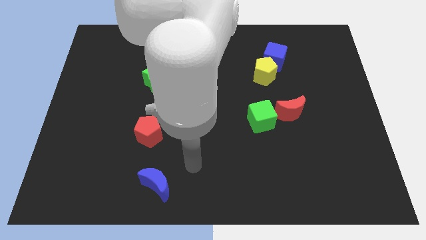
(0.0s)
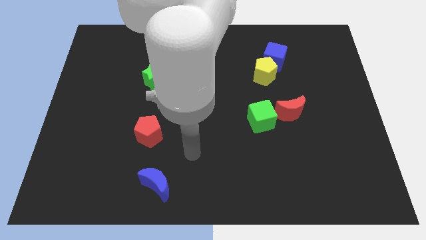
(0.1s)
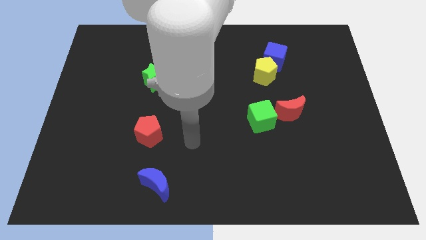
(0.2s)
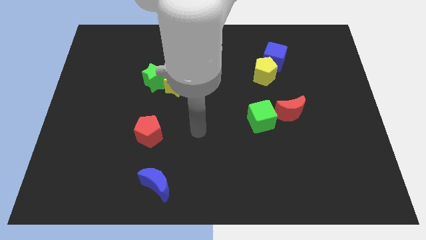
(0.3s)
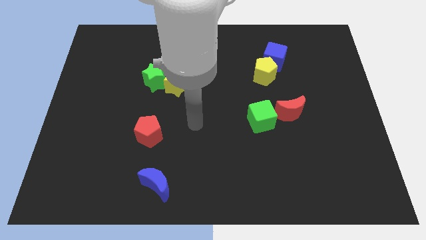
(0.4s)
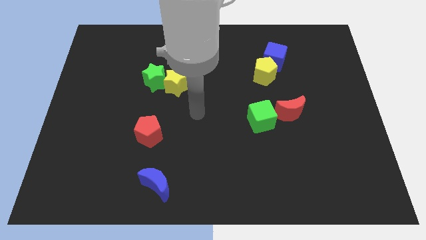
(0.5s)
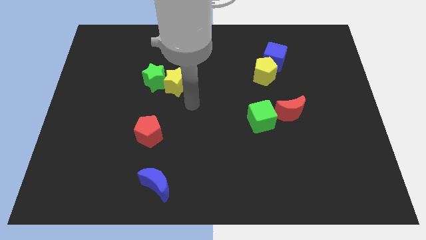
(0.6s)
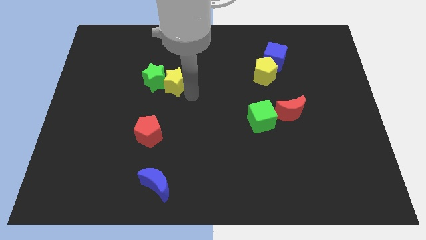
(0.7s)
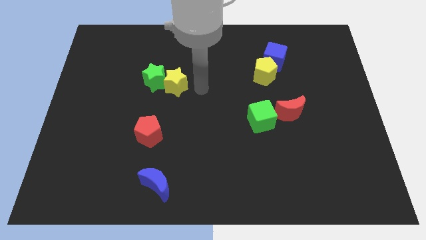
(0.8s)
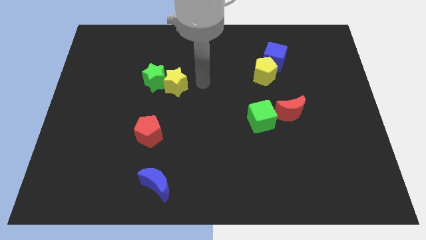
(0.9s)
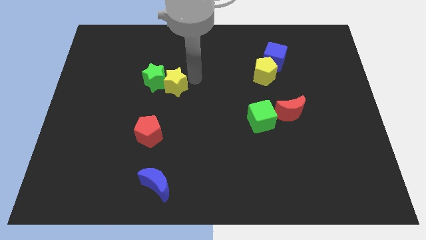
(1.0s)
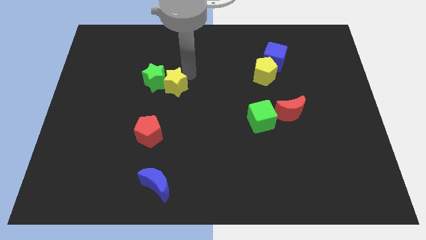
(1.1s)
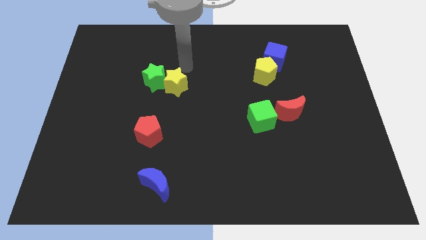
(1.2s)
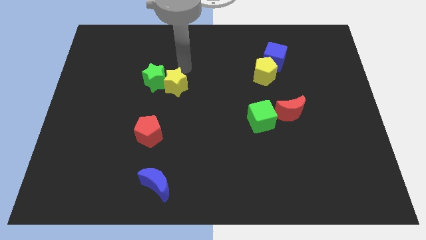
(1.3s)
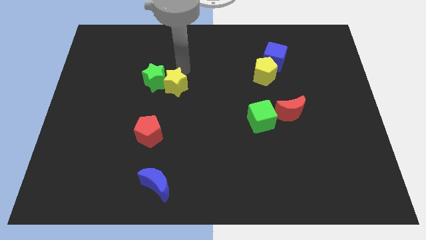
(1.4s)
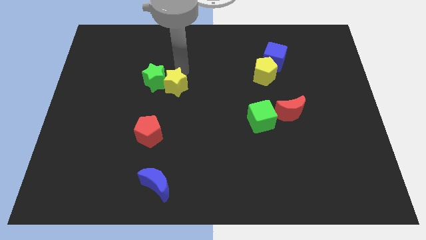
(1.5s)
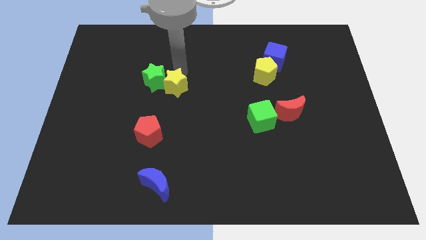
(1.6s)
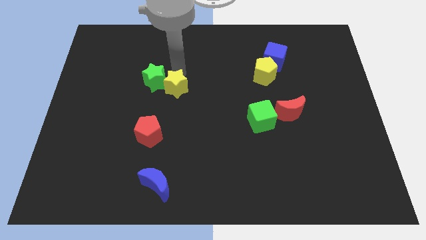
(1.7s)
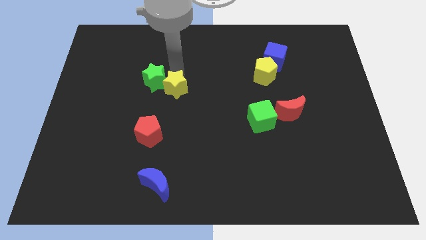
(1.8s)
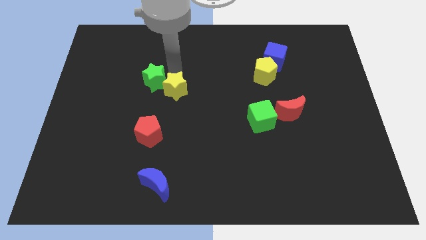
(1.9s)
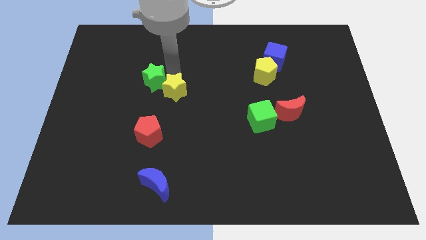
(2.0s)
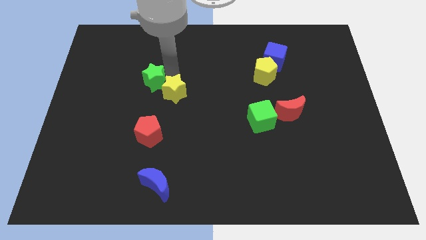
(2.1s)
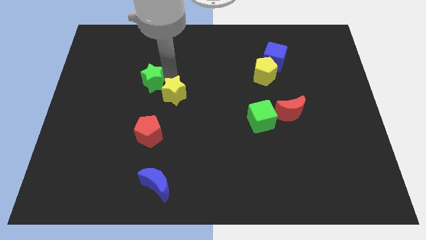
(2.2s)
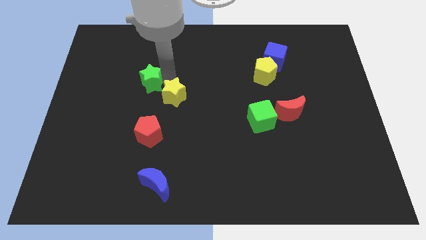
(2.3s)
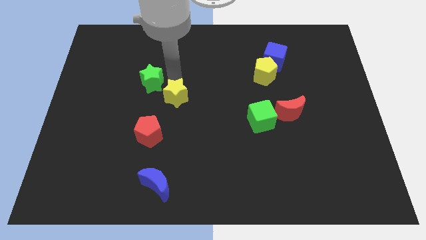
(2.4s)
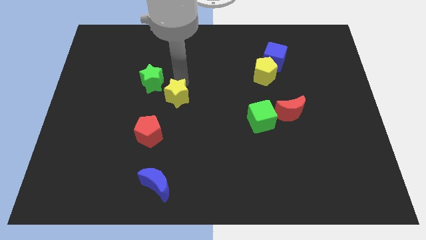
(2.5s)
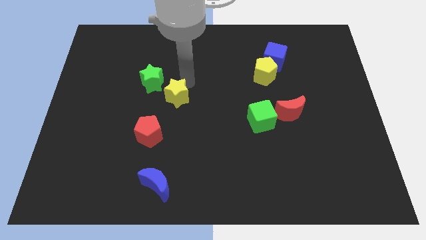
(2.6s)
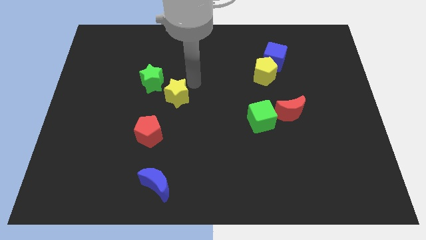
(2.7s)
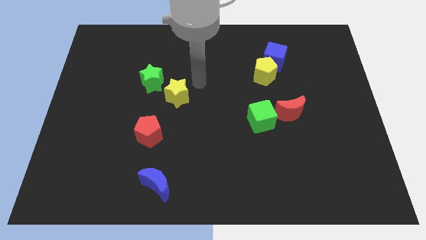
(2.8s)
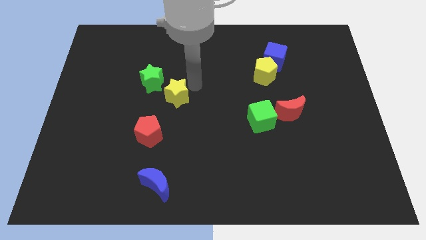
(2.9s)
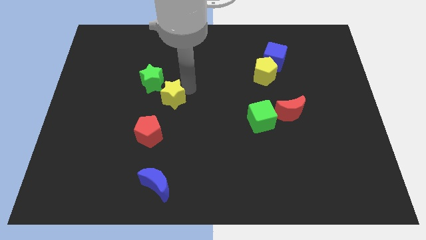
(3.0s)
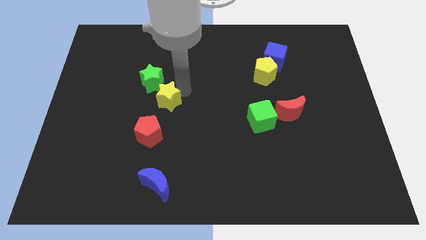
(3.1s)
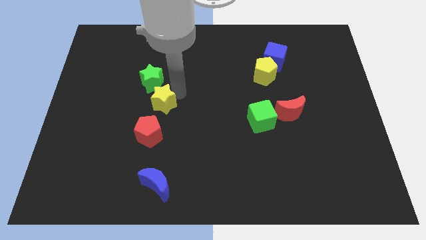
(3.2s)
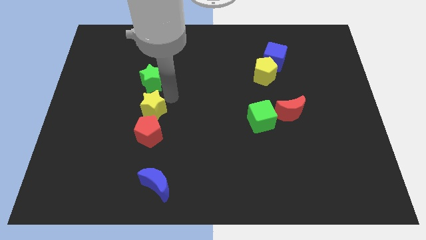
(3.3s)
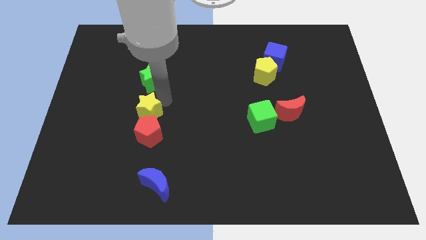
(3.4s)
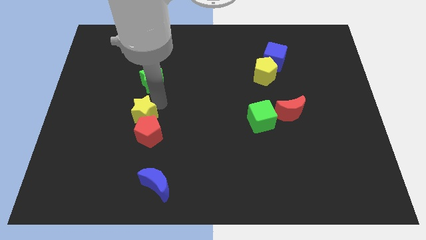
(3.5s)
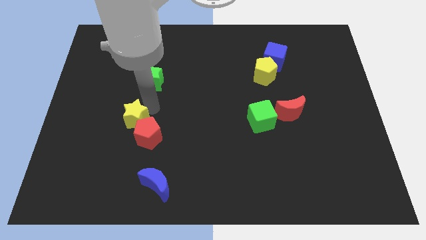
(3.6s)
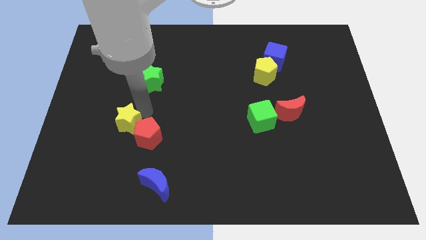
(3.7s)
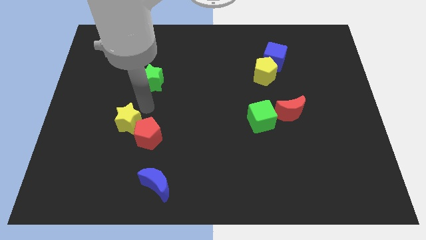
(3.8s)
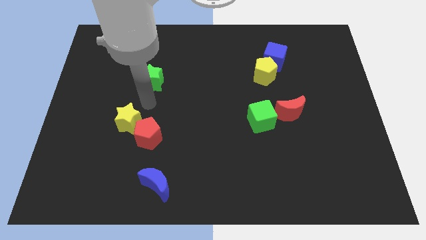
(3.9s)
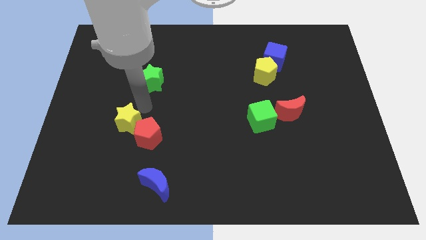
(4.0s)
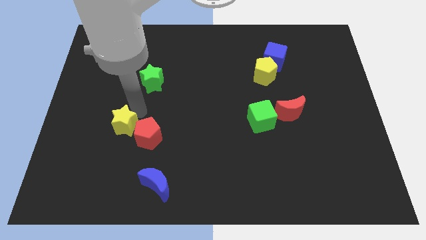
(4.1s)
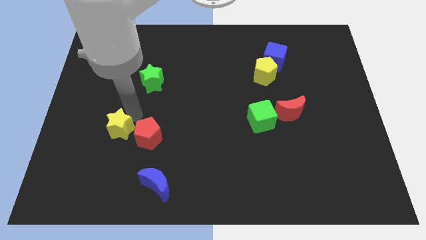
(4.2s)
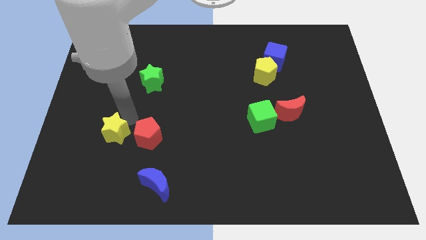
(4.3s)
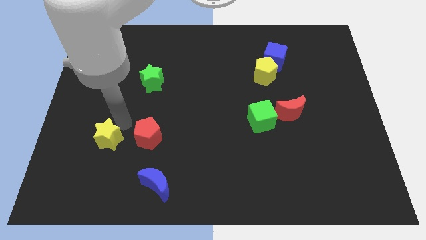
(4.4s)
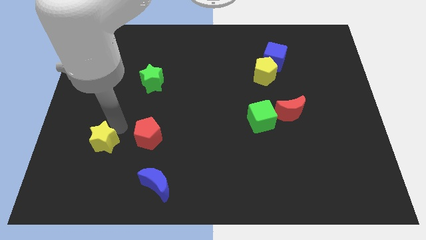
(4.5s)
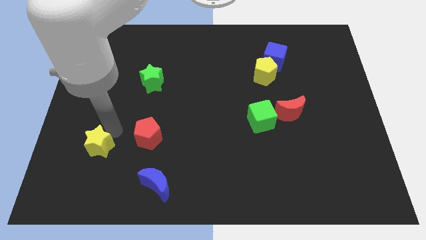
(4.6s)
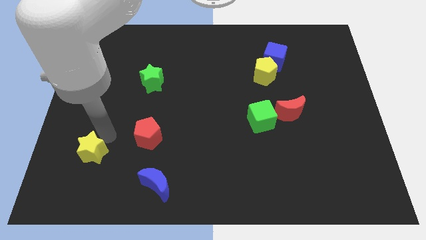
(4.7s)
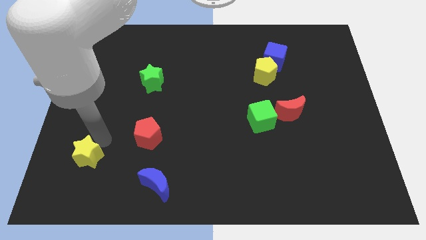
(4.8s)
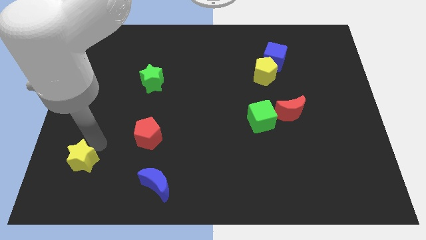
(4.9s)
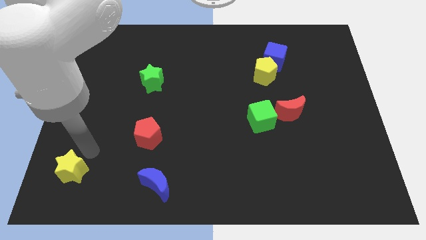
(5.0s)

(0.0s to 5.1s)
move the yellow star to the bottom left of the board

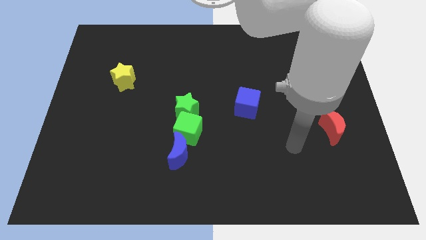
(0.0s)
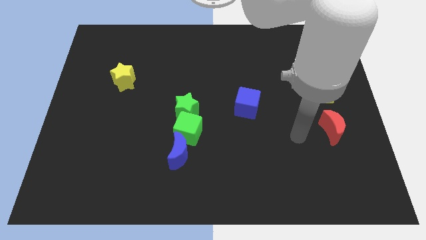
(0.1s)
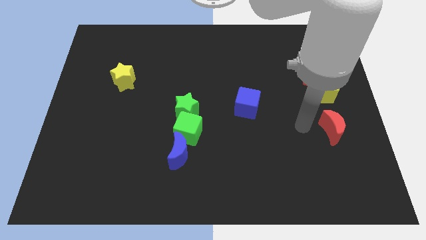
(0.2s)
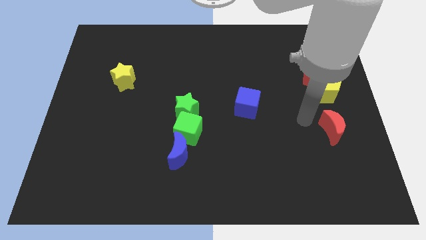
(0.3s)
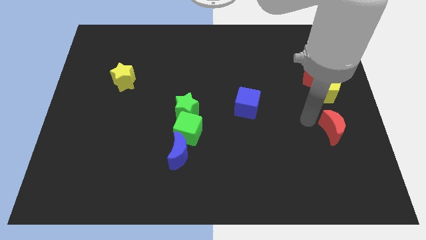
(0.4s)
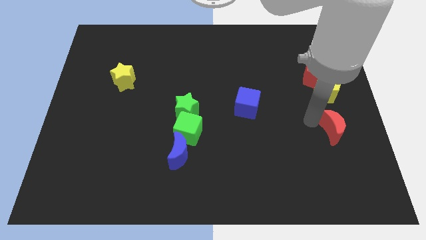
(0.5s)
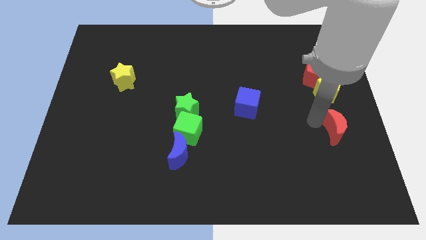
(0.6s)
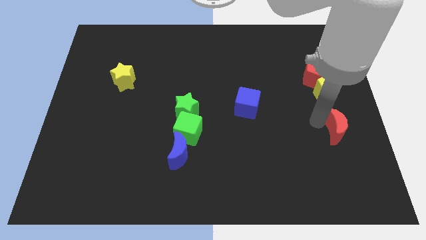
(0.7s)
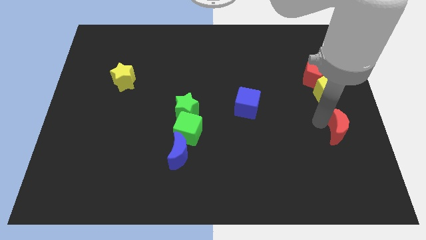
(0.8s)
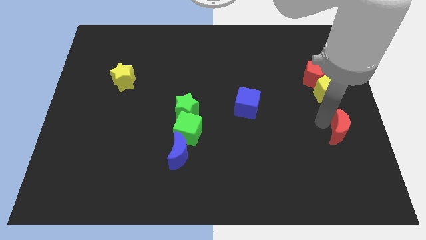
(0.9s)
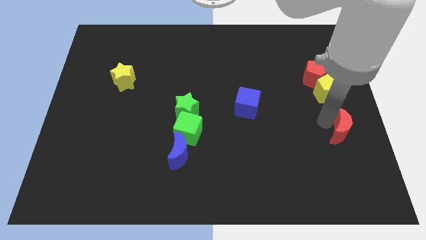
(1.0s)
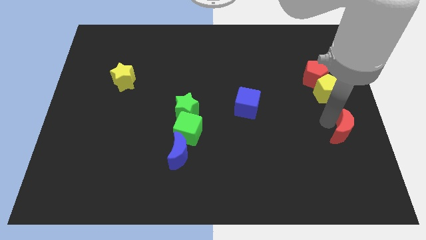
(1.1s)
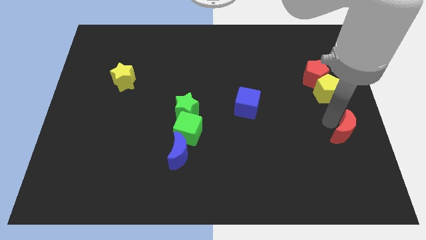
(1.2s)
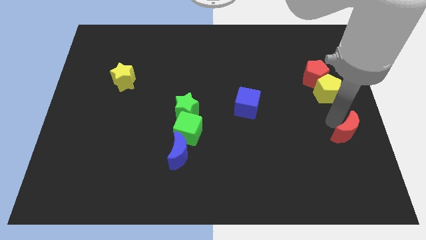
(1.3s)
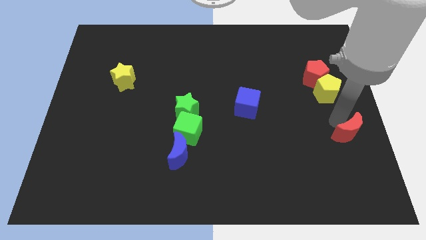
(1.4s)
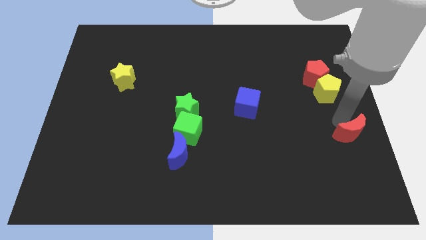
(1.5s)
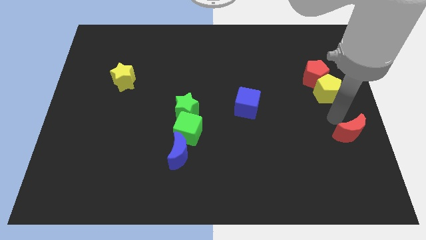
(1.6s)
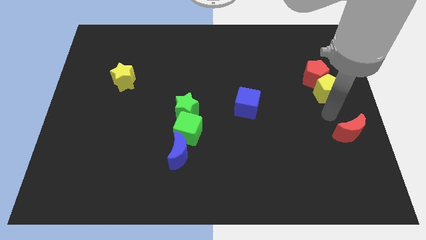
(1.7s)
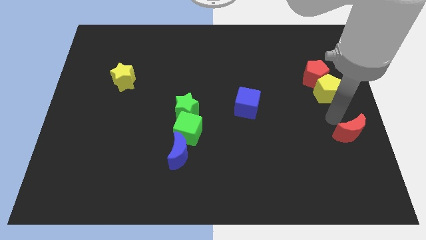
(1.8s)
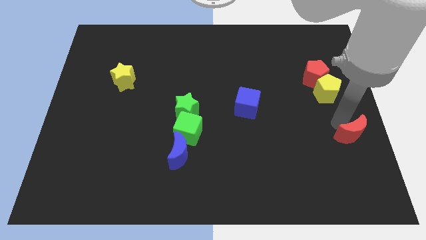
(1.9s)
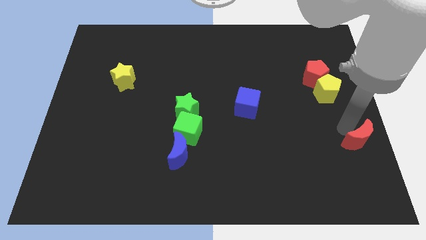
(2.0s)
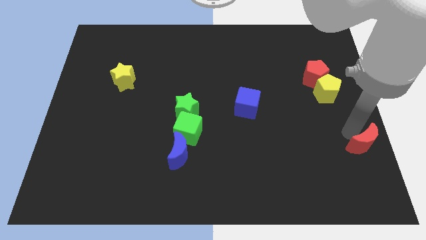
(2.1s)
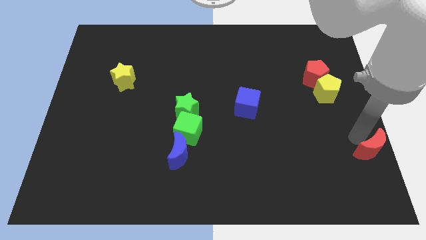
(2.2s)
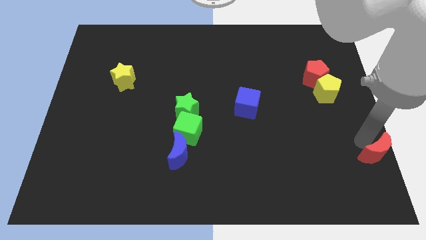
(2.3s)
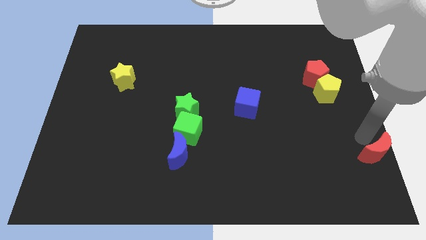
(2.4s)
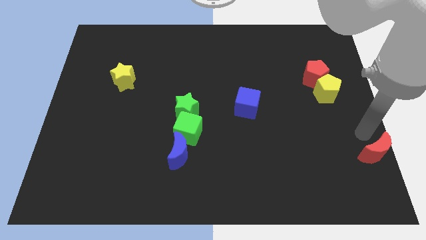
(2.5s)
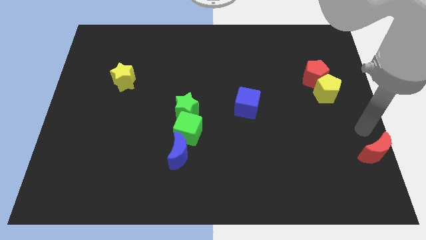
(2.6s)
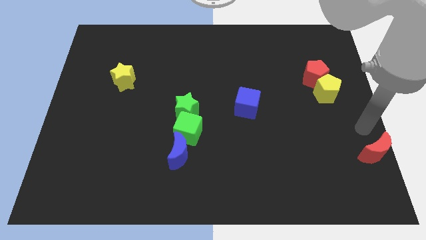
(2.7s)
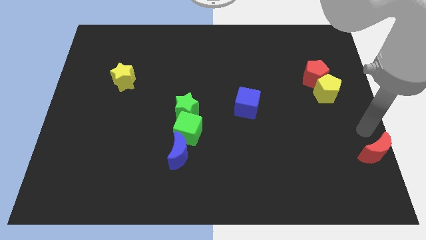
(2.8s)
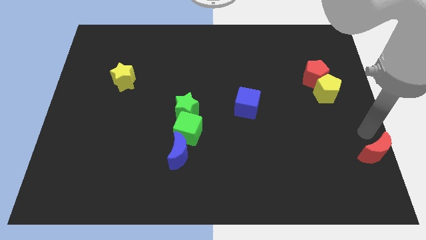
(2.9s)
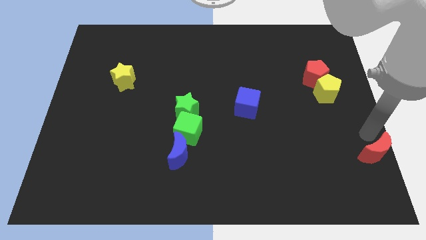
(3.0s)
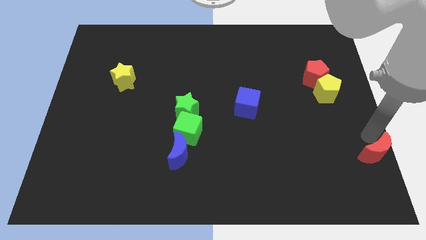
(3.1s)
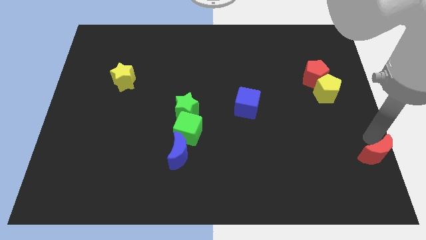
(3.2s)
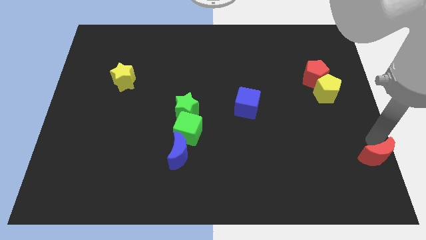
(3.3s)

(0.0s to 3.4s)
put the red moon to the bottom right corner
